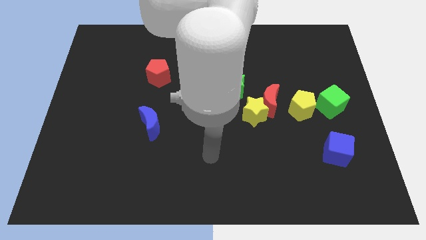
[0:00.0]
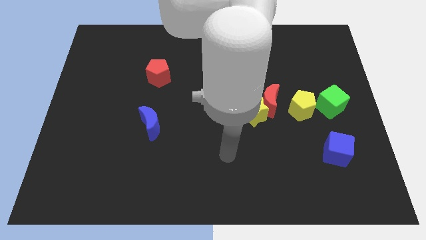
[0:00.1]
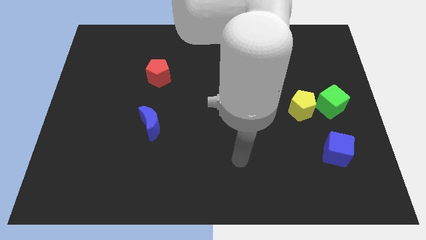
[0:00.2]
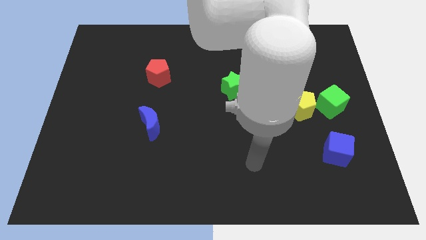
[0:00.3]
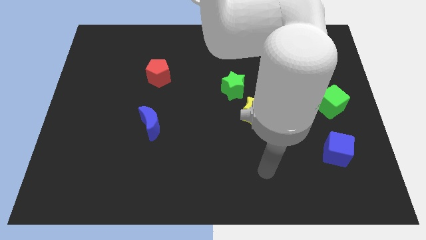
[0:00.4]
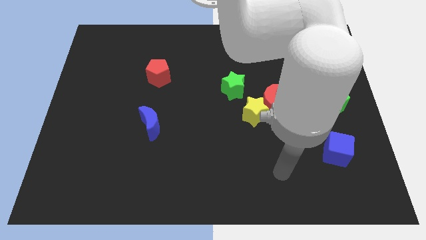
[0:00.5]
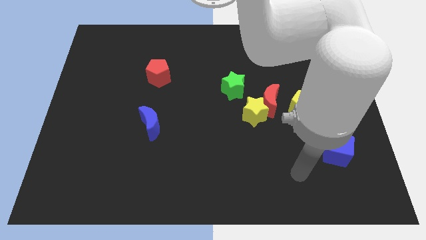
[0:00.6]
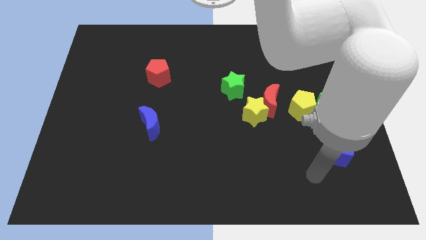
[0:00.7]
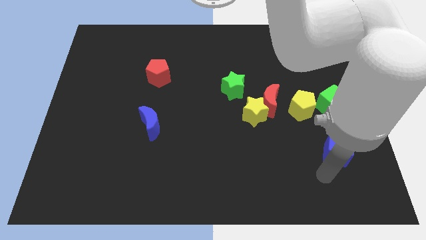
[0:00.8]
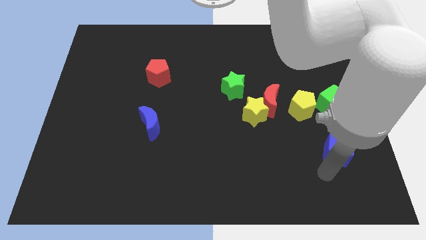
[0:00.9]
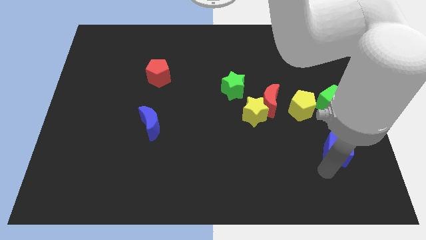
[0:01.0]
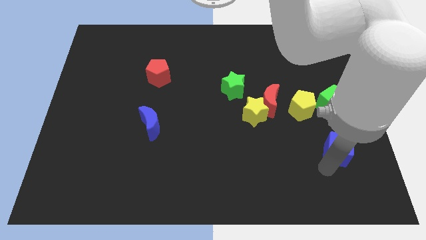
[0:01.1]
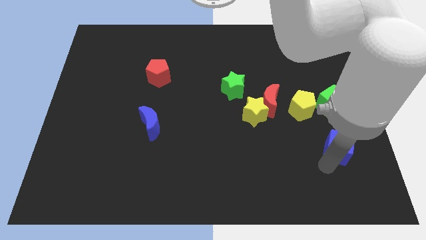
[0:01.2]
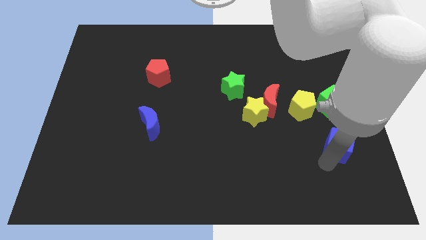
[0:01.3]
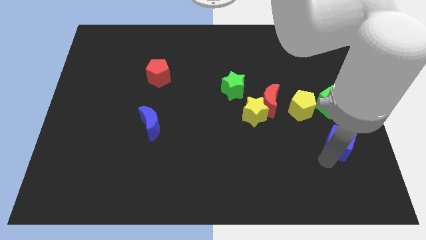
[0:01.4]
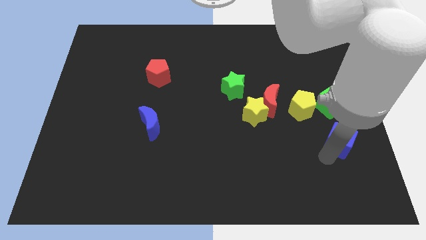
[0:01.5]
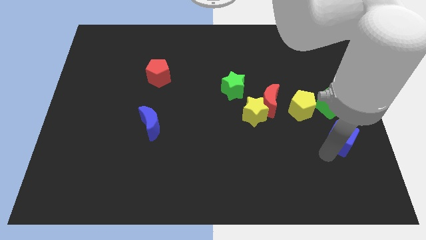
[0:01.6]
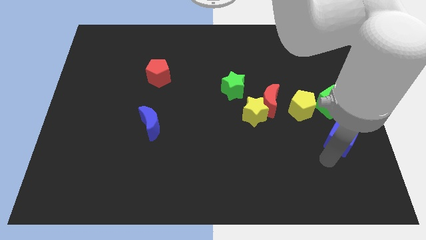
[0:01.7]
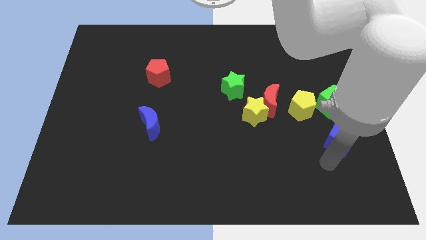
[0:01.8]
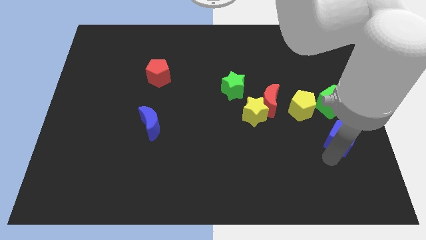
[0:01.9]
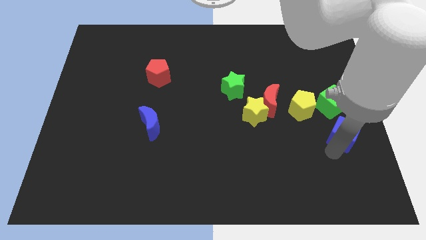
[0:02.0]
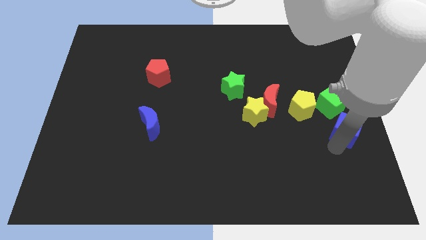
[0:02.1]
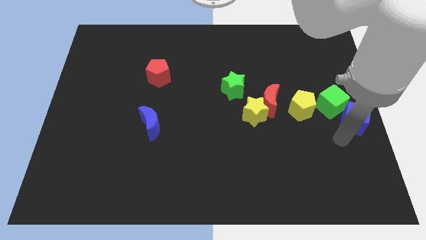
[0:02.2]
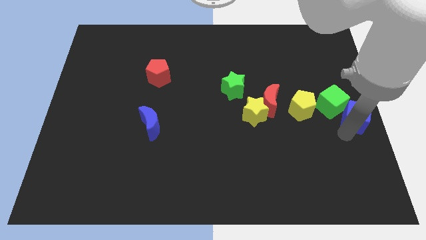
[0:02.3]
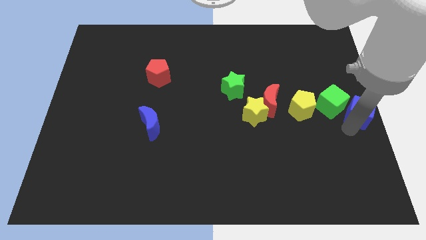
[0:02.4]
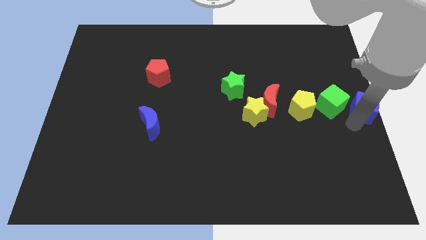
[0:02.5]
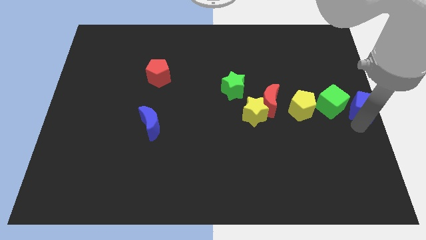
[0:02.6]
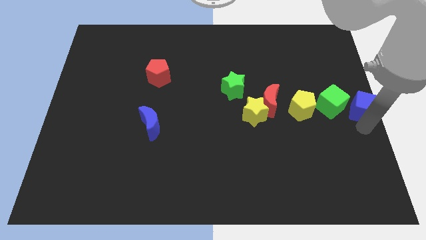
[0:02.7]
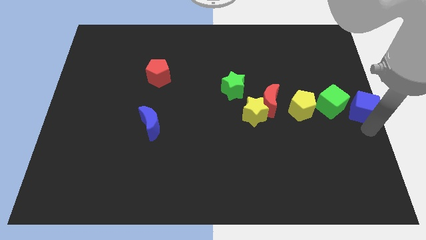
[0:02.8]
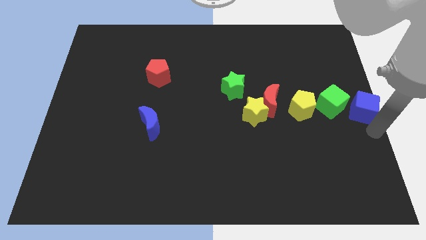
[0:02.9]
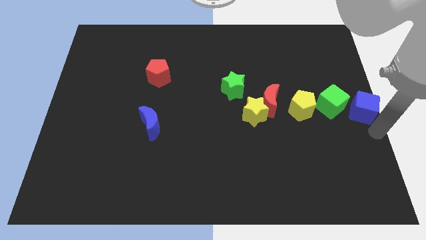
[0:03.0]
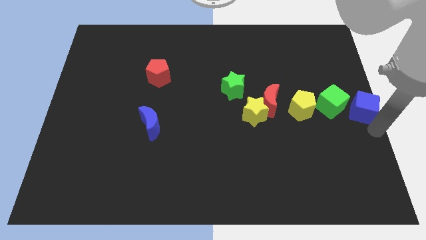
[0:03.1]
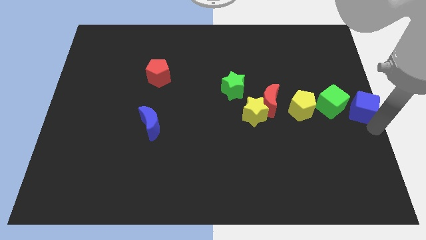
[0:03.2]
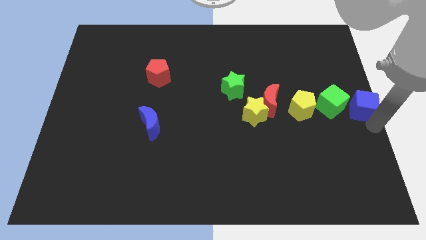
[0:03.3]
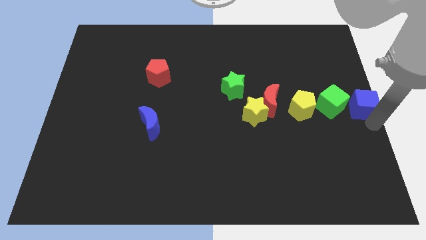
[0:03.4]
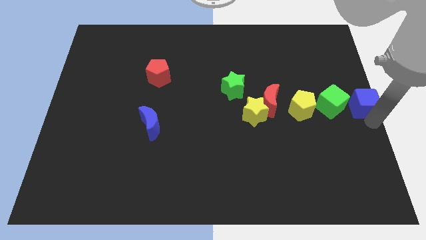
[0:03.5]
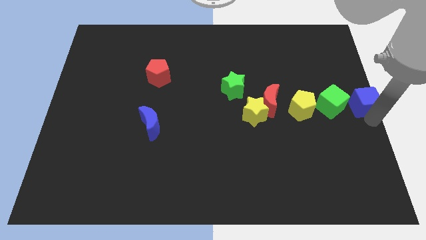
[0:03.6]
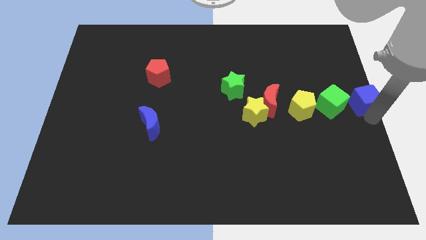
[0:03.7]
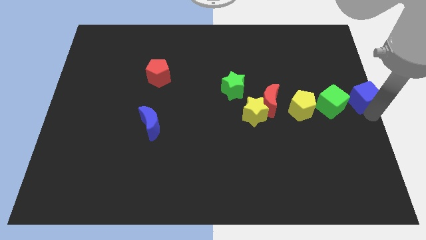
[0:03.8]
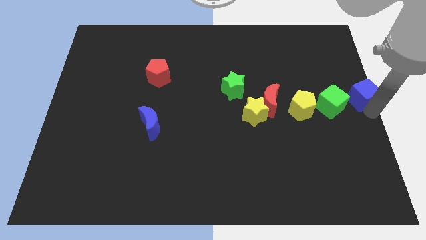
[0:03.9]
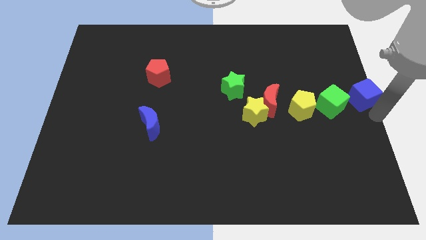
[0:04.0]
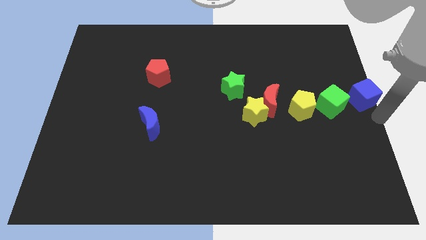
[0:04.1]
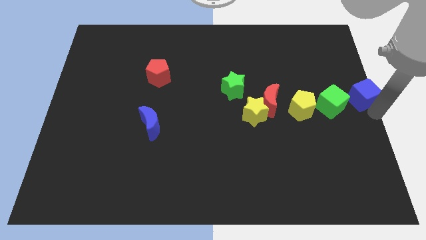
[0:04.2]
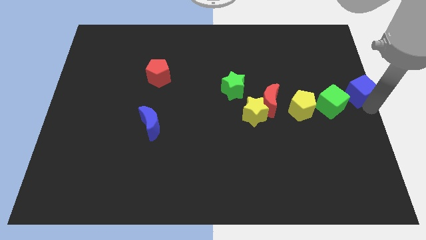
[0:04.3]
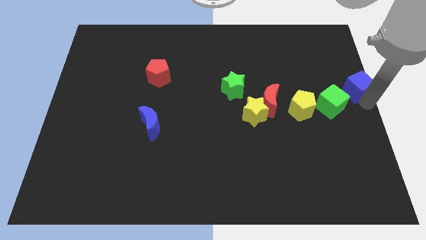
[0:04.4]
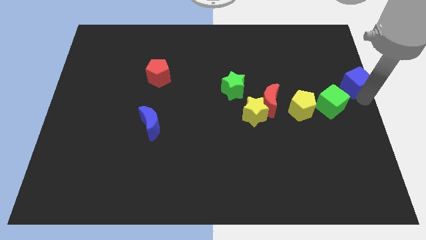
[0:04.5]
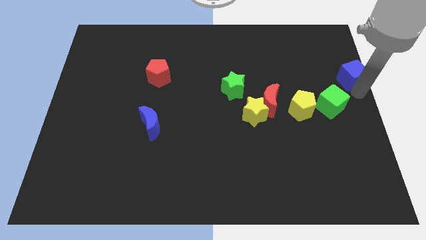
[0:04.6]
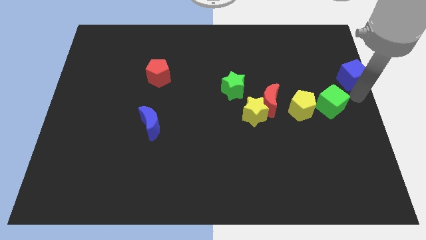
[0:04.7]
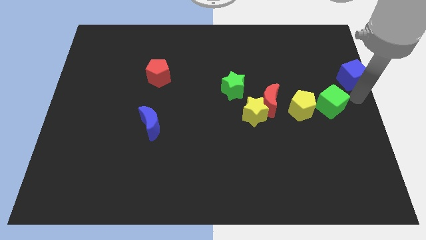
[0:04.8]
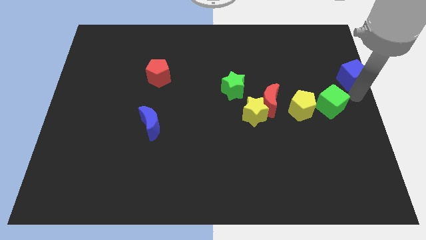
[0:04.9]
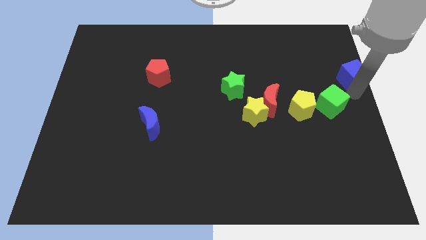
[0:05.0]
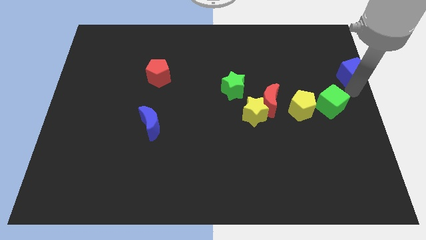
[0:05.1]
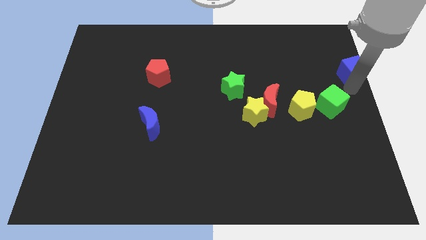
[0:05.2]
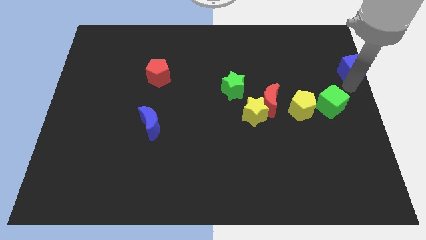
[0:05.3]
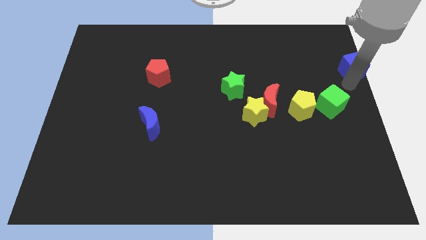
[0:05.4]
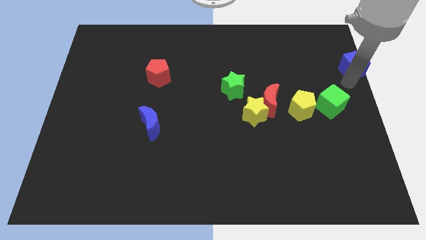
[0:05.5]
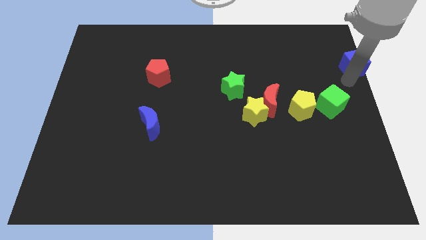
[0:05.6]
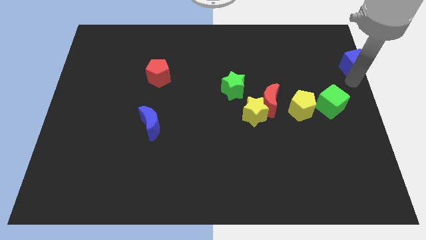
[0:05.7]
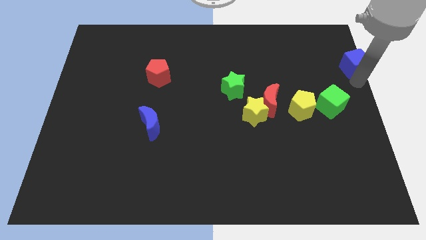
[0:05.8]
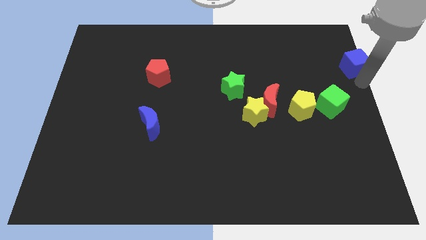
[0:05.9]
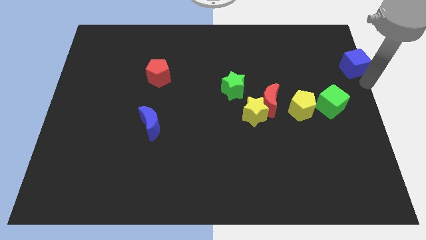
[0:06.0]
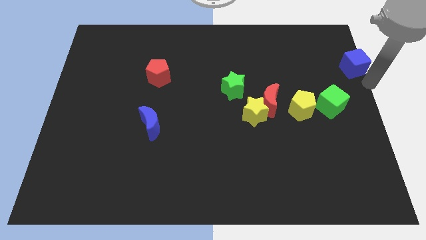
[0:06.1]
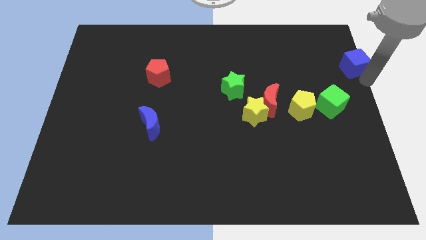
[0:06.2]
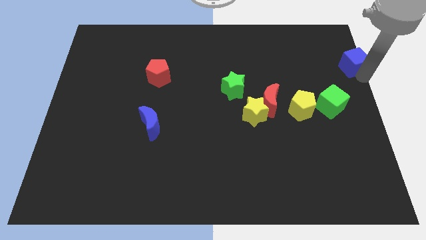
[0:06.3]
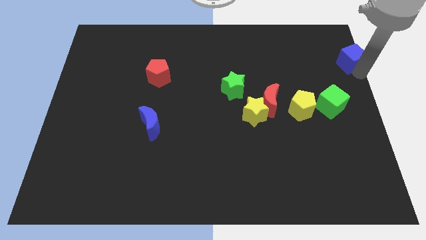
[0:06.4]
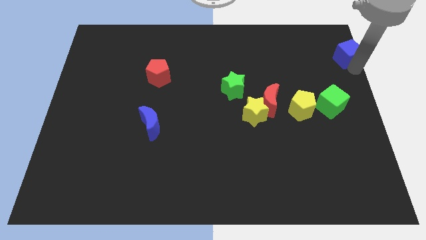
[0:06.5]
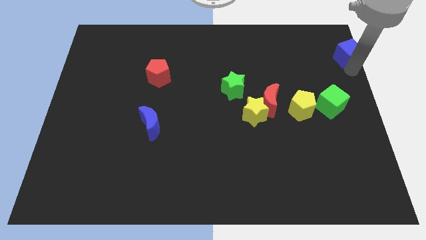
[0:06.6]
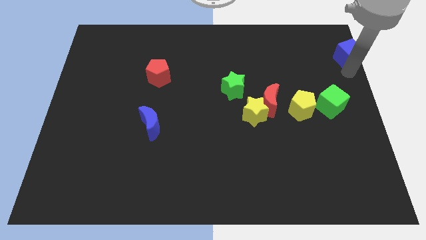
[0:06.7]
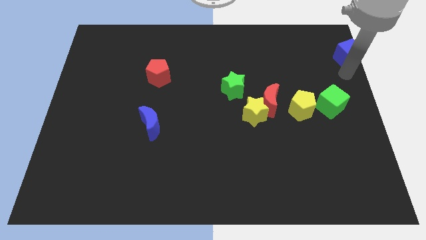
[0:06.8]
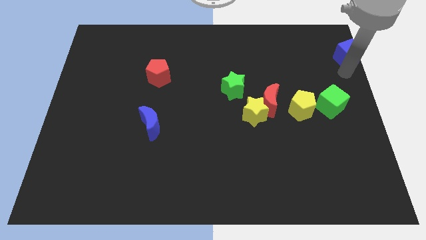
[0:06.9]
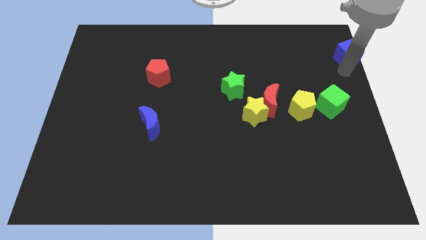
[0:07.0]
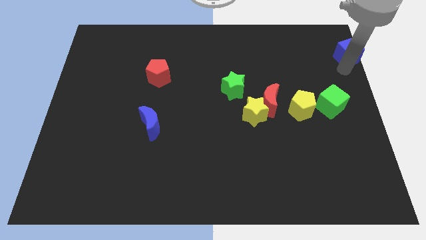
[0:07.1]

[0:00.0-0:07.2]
slide the blue cube to the upper right corner
